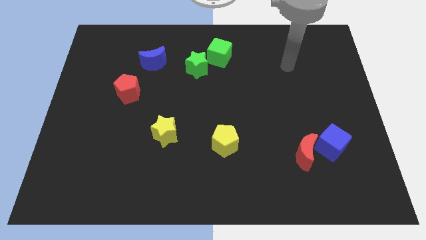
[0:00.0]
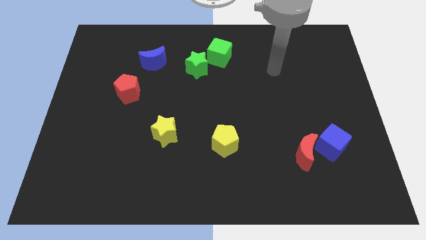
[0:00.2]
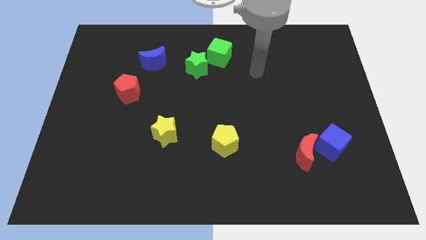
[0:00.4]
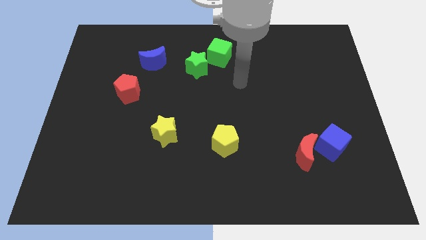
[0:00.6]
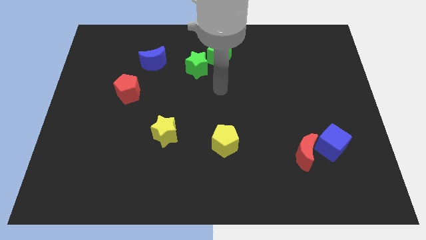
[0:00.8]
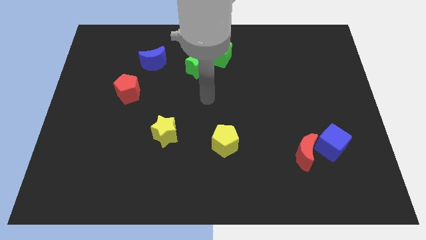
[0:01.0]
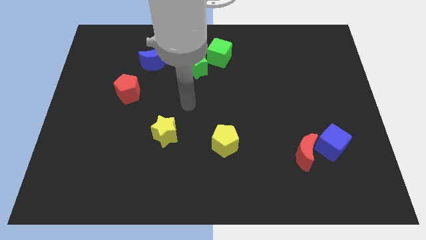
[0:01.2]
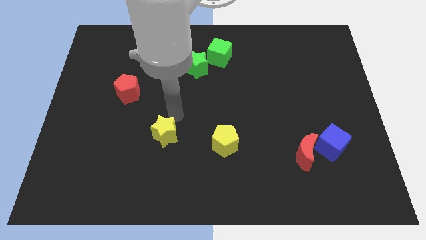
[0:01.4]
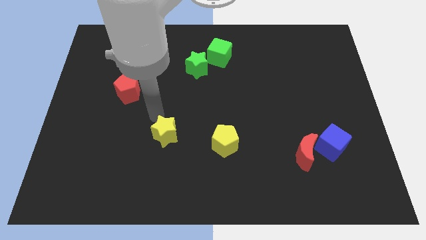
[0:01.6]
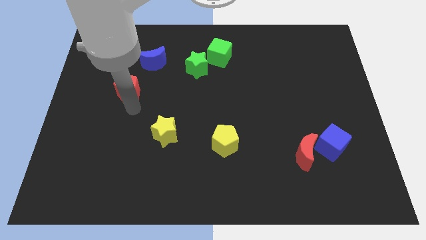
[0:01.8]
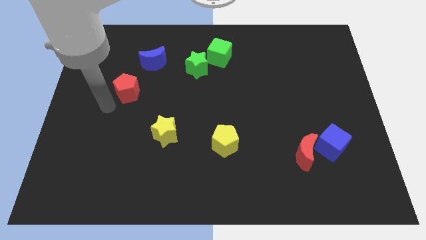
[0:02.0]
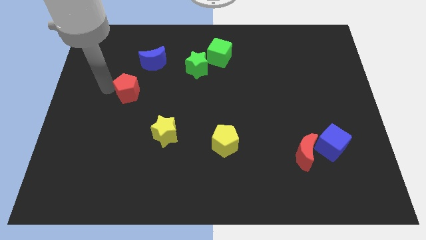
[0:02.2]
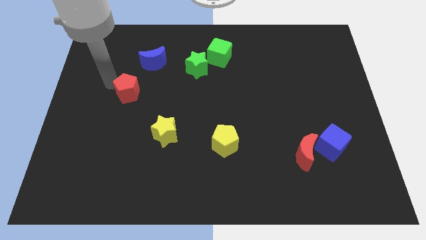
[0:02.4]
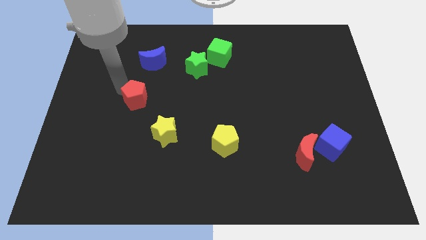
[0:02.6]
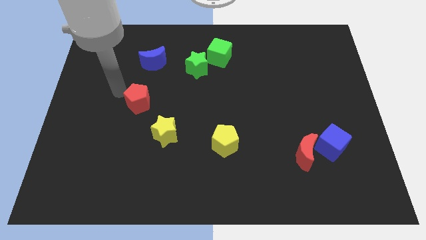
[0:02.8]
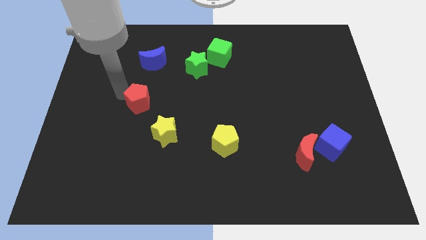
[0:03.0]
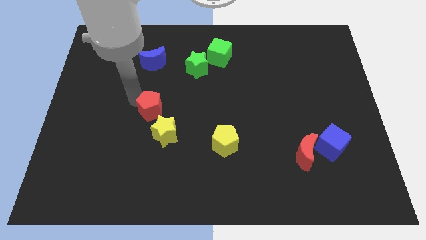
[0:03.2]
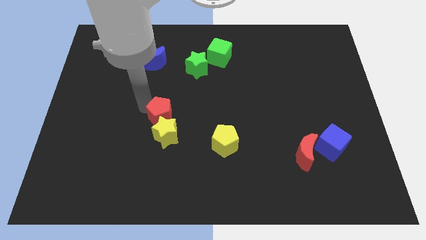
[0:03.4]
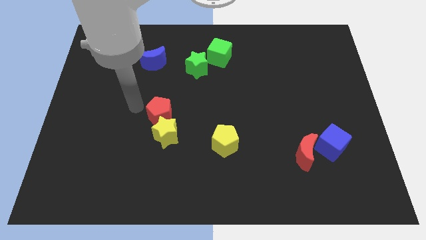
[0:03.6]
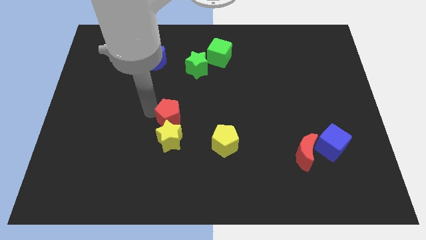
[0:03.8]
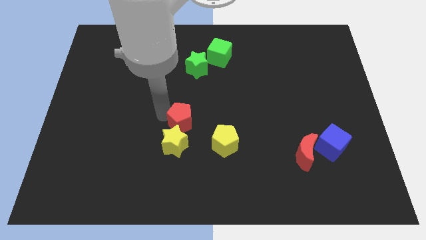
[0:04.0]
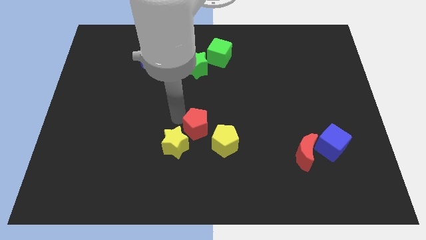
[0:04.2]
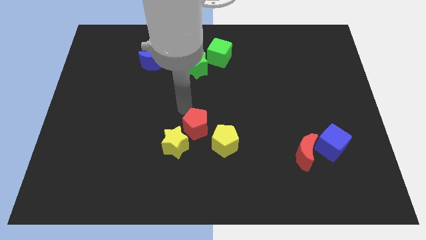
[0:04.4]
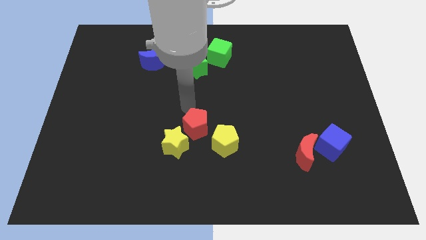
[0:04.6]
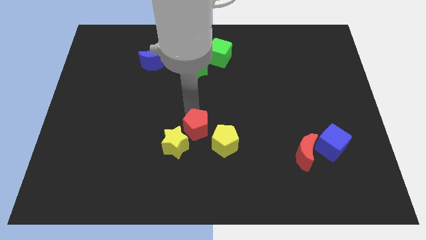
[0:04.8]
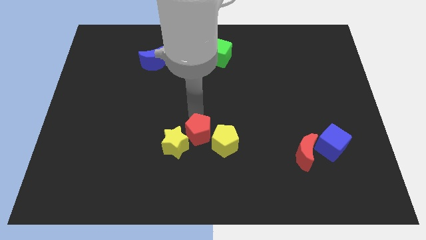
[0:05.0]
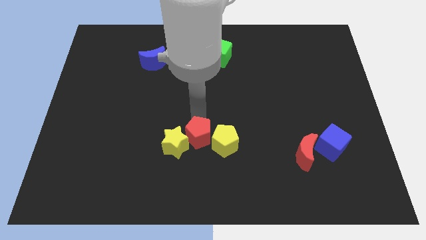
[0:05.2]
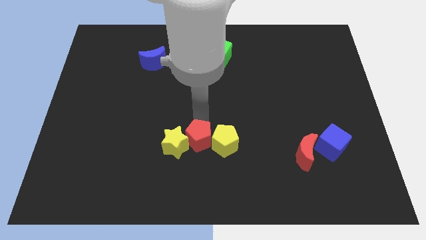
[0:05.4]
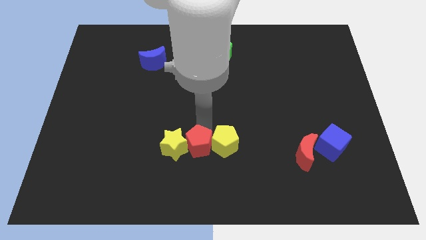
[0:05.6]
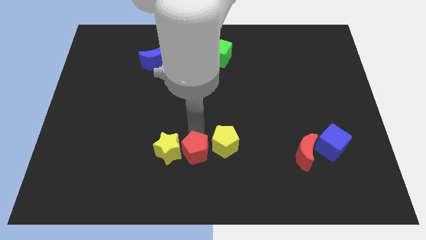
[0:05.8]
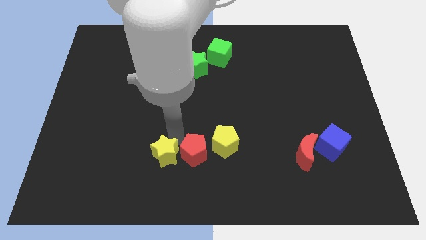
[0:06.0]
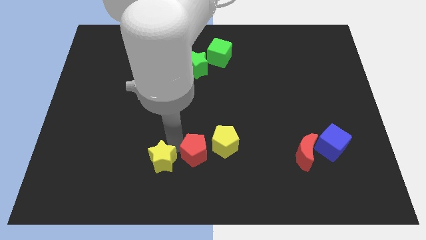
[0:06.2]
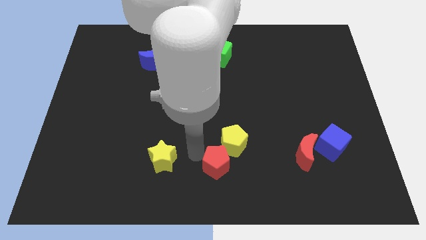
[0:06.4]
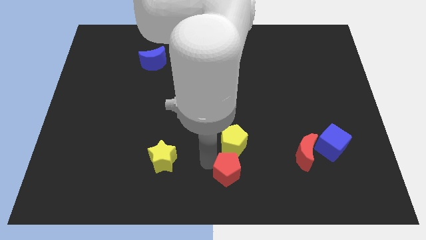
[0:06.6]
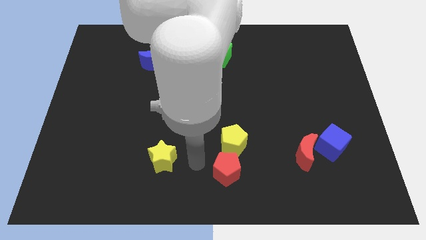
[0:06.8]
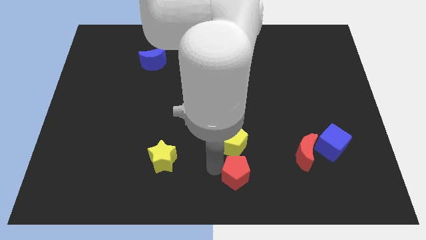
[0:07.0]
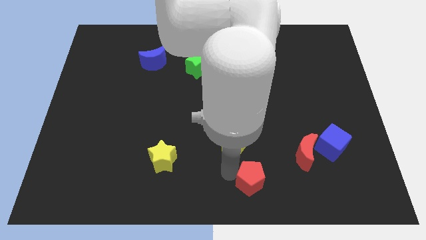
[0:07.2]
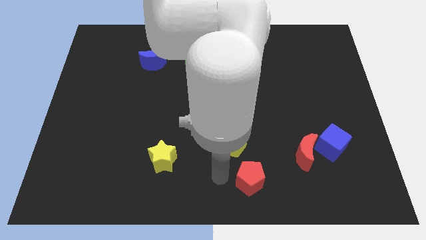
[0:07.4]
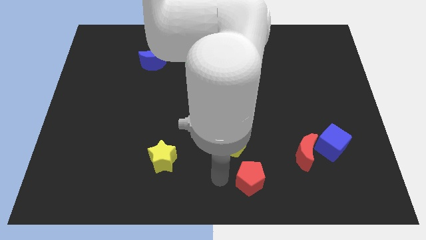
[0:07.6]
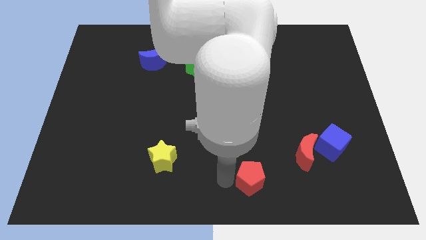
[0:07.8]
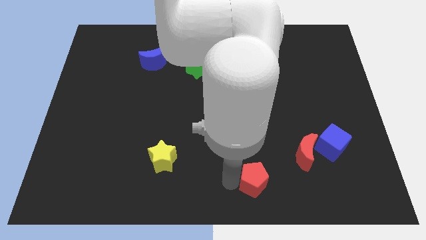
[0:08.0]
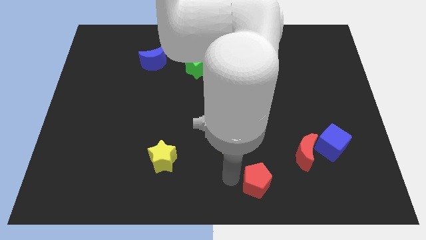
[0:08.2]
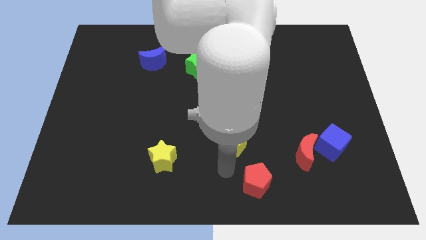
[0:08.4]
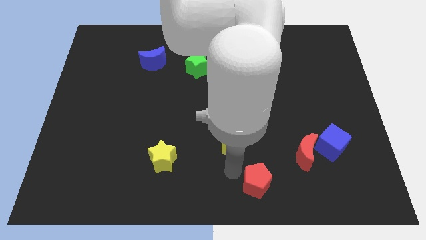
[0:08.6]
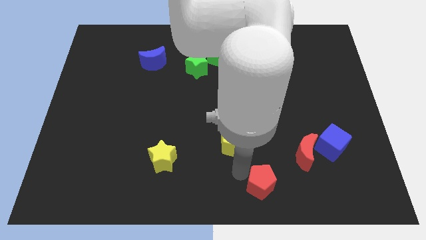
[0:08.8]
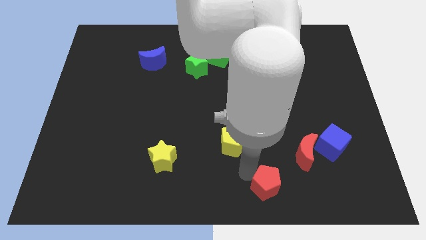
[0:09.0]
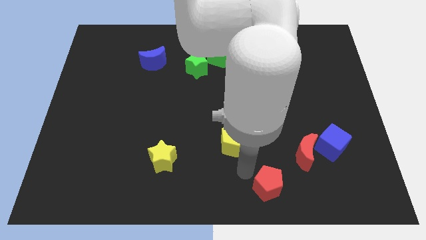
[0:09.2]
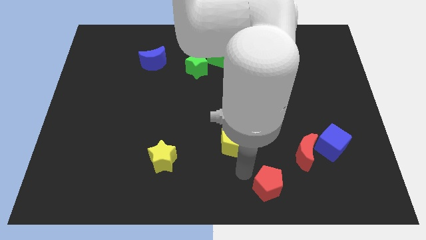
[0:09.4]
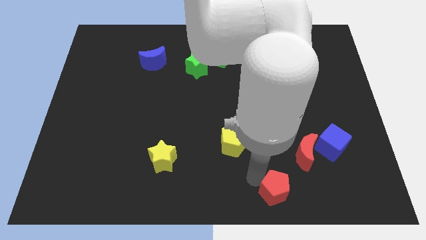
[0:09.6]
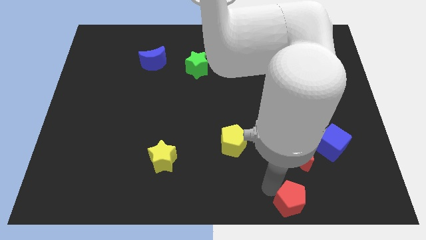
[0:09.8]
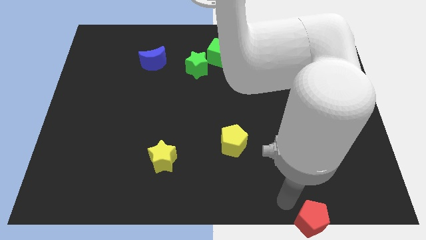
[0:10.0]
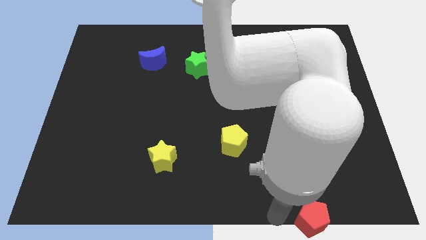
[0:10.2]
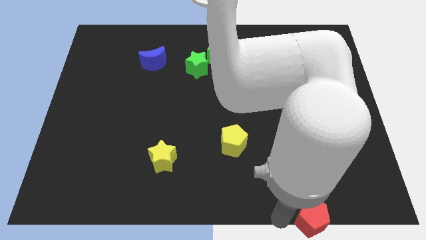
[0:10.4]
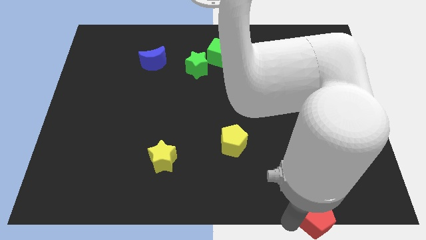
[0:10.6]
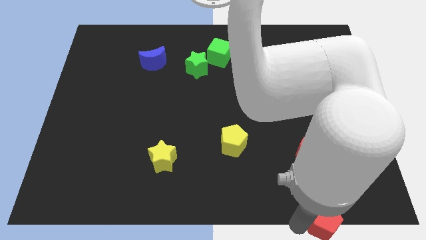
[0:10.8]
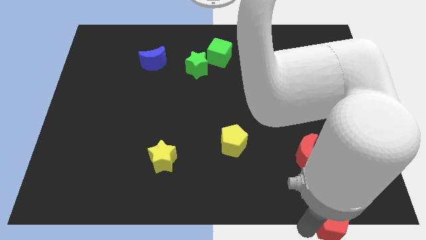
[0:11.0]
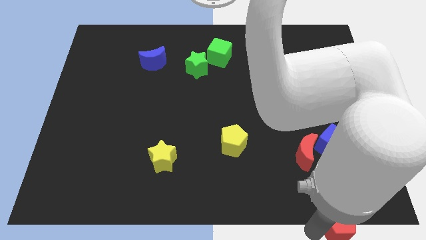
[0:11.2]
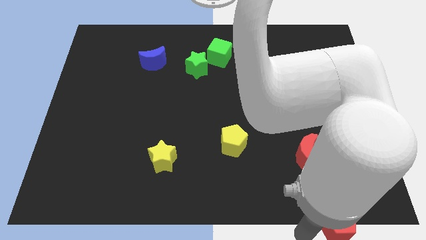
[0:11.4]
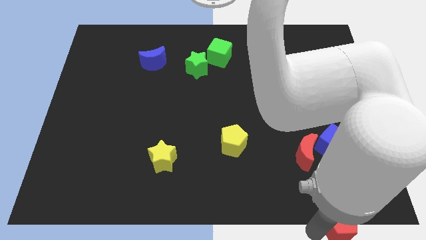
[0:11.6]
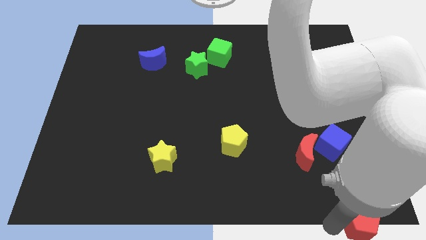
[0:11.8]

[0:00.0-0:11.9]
push the red pentagon to the bottom right of the board
